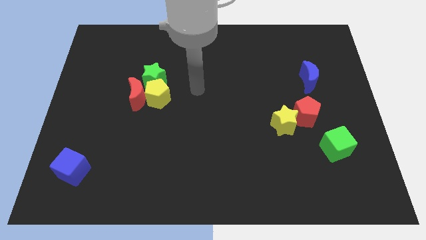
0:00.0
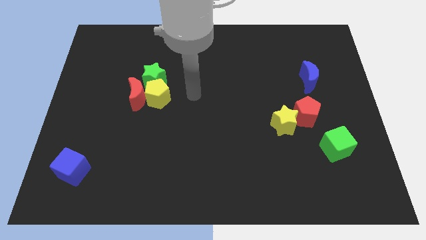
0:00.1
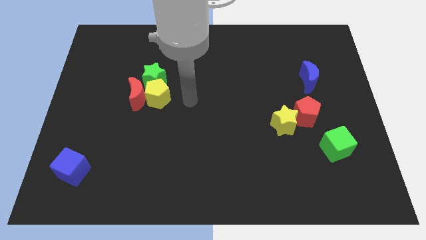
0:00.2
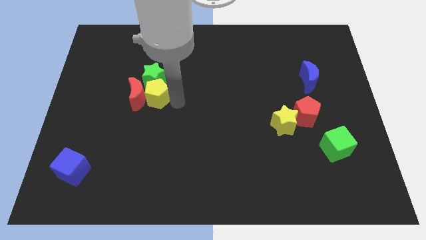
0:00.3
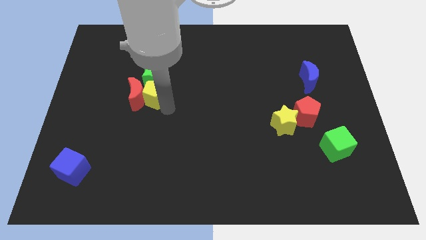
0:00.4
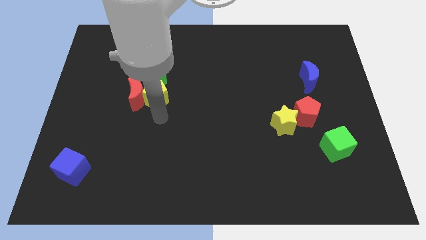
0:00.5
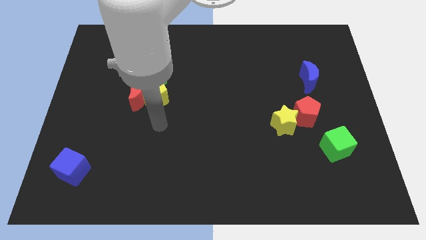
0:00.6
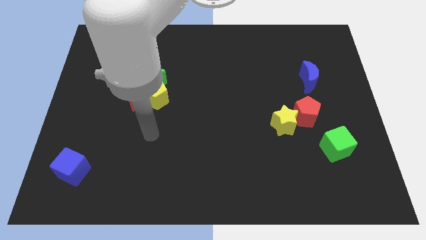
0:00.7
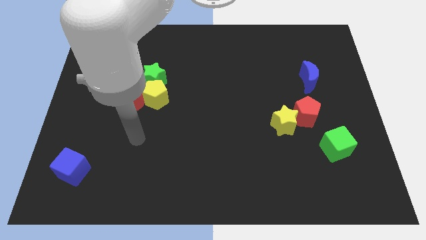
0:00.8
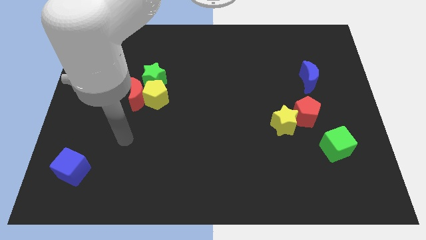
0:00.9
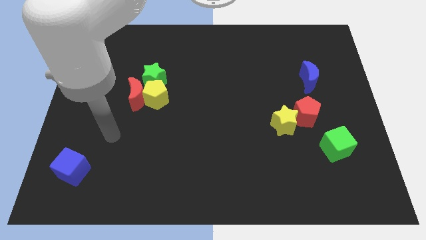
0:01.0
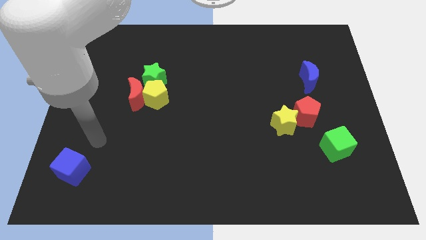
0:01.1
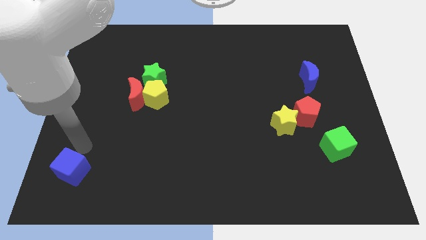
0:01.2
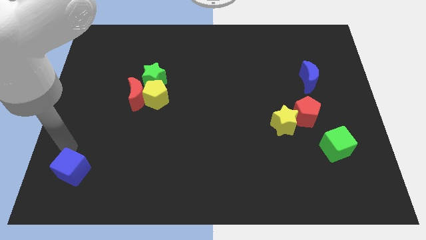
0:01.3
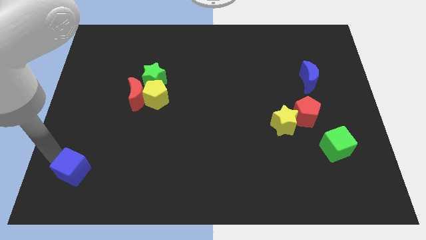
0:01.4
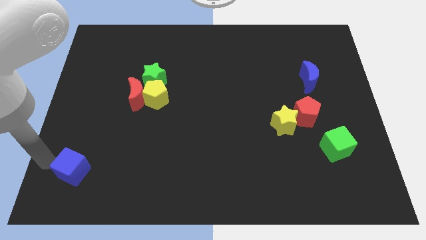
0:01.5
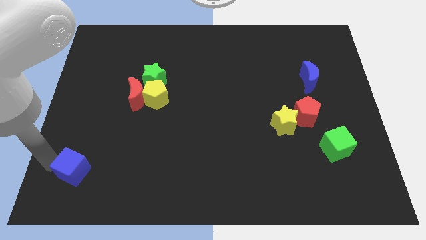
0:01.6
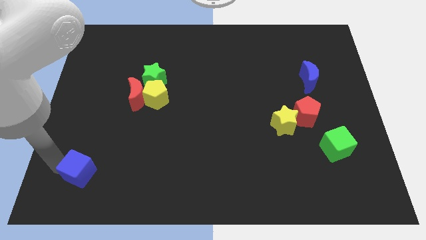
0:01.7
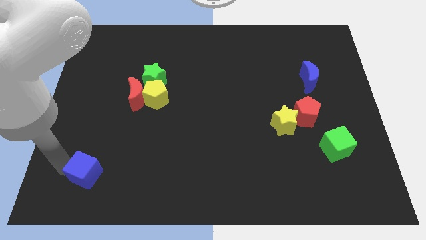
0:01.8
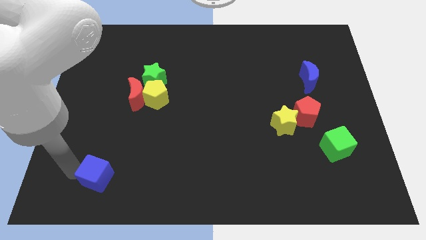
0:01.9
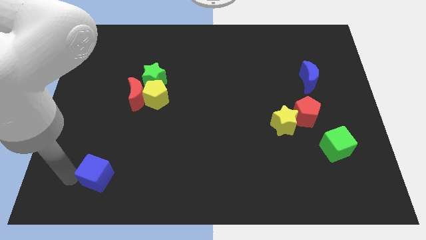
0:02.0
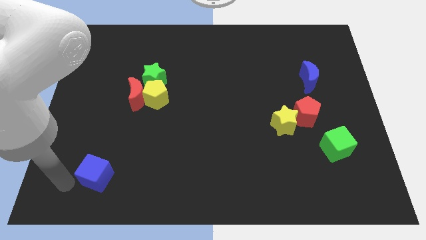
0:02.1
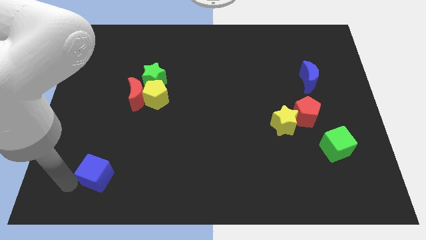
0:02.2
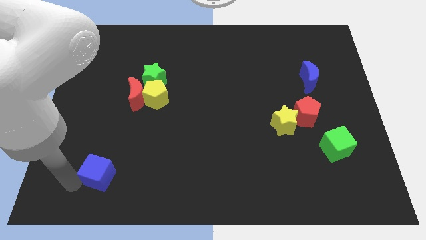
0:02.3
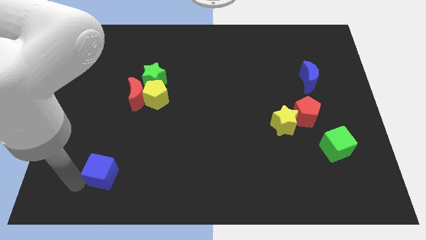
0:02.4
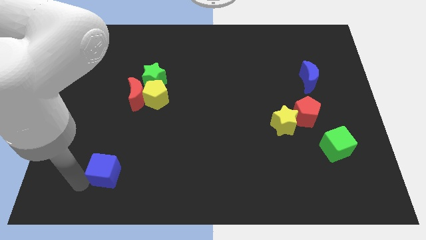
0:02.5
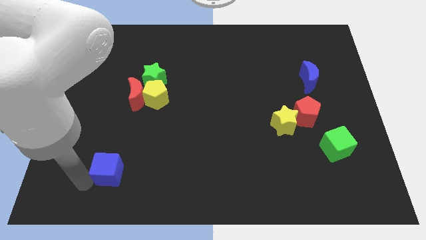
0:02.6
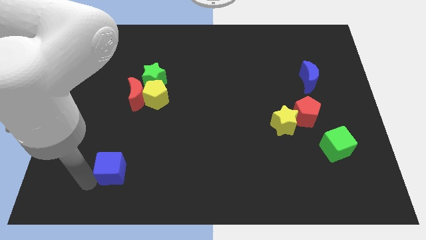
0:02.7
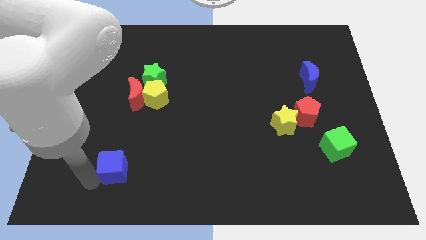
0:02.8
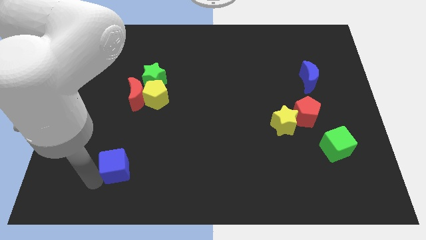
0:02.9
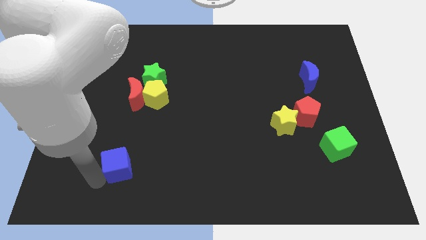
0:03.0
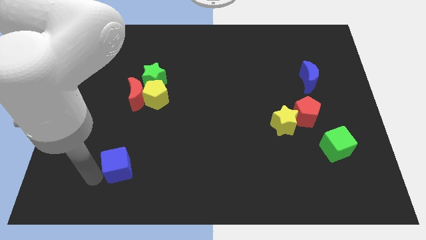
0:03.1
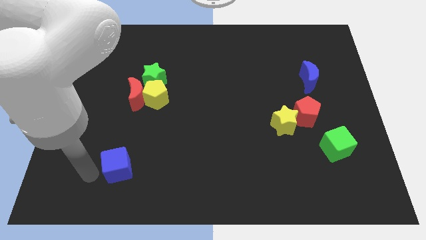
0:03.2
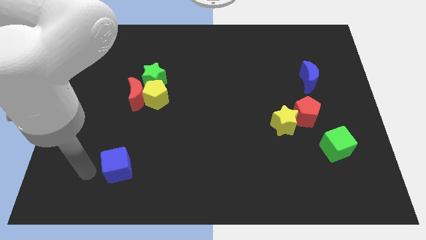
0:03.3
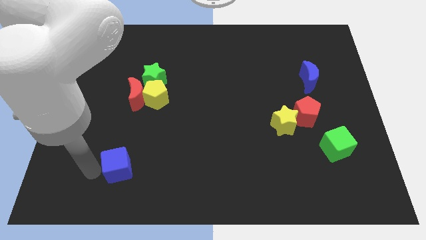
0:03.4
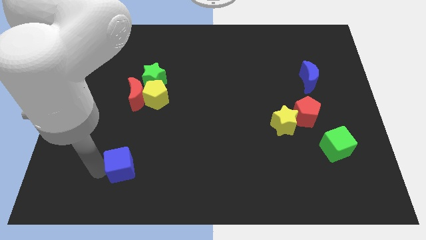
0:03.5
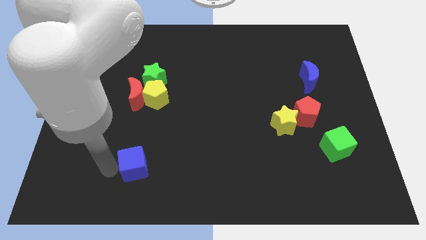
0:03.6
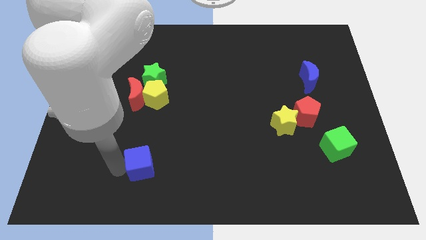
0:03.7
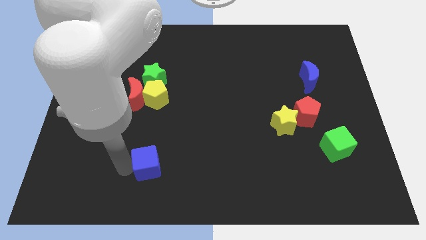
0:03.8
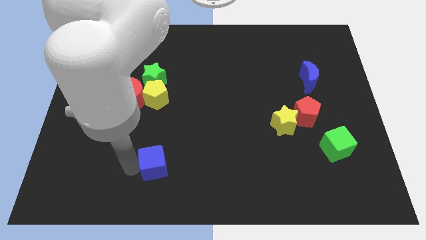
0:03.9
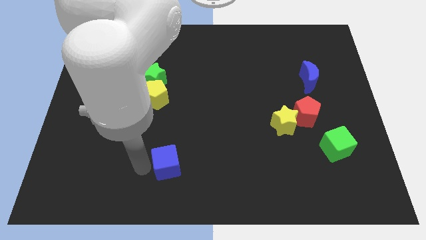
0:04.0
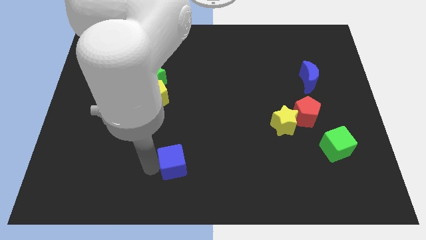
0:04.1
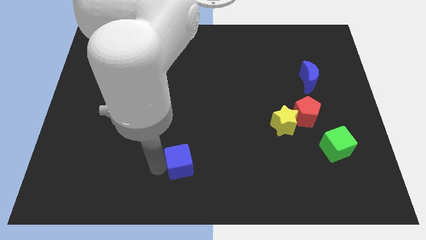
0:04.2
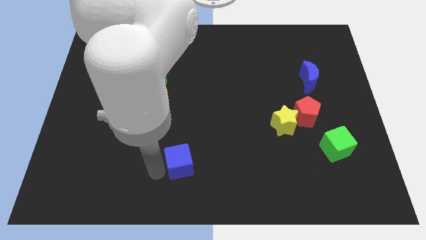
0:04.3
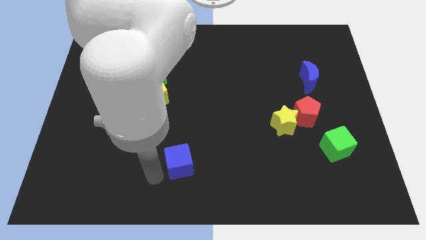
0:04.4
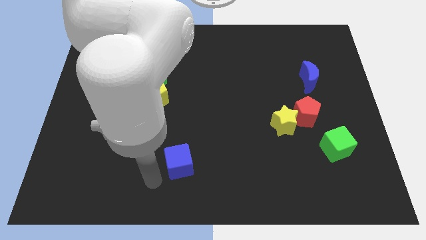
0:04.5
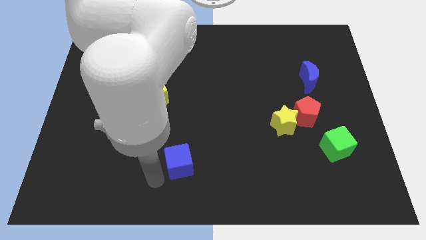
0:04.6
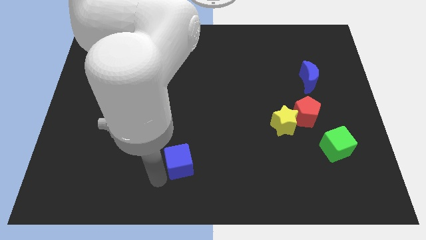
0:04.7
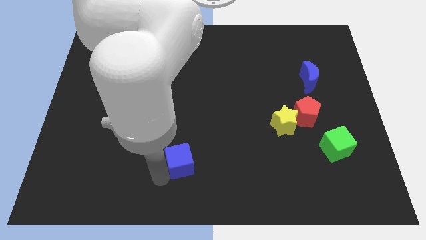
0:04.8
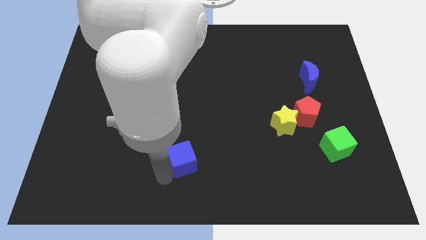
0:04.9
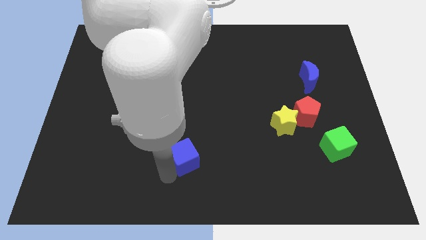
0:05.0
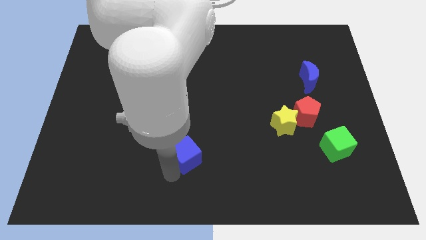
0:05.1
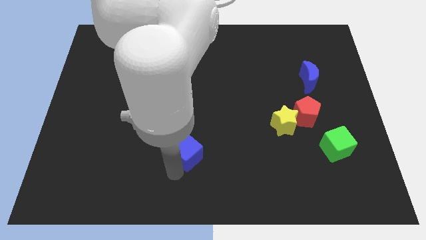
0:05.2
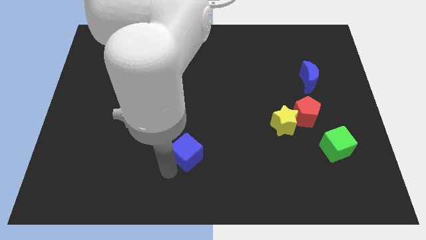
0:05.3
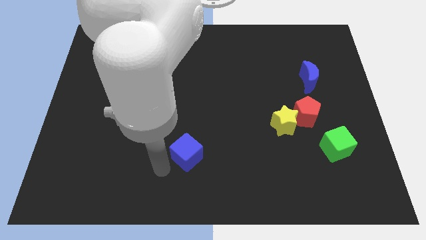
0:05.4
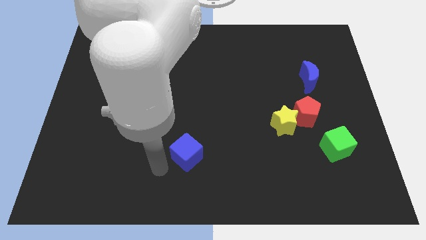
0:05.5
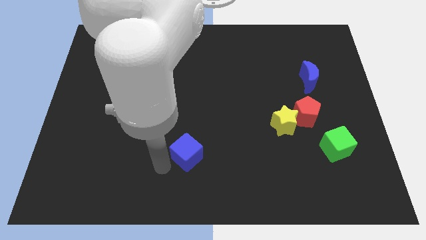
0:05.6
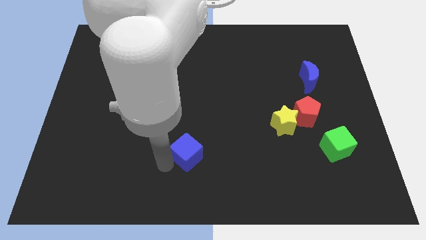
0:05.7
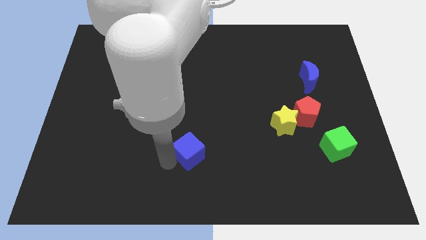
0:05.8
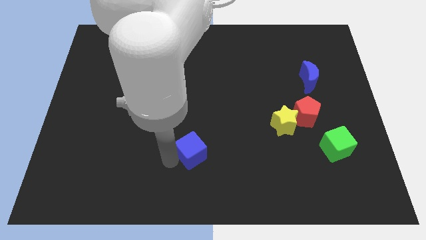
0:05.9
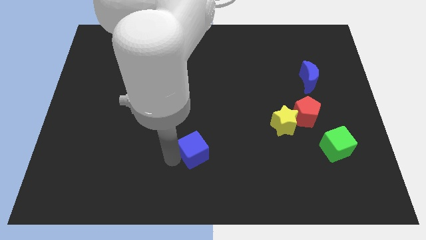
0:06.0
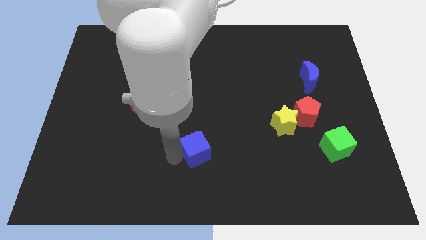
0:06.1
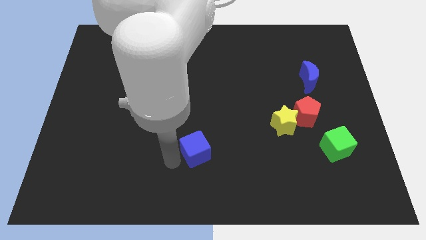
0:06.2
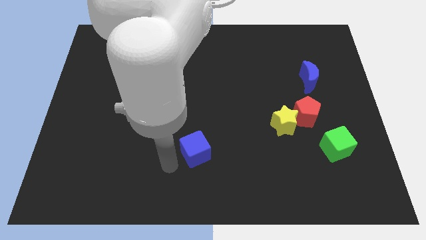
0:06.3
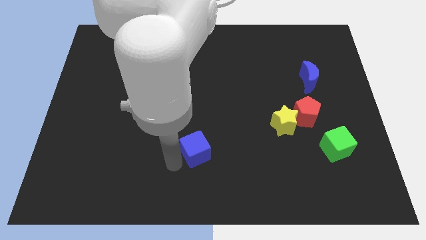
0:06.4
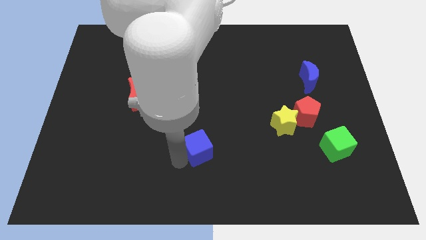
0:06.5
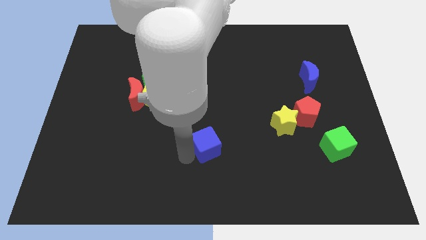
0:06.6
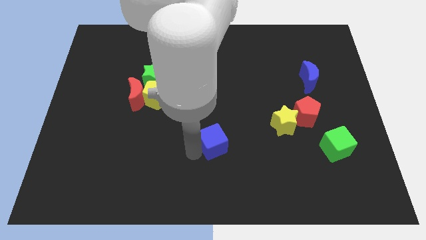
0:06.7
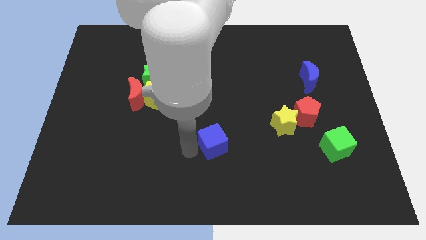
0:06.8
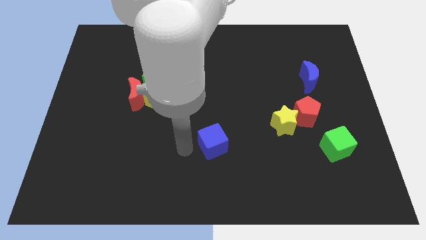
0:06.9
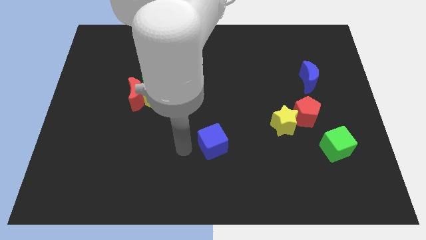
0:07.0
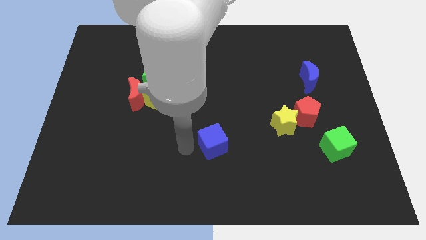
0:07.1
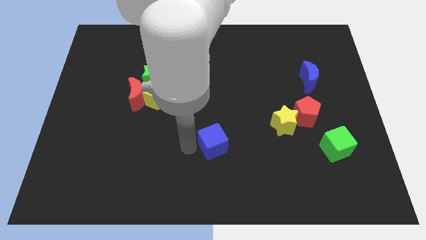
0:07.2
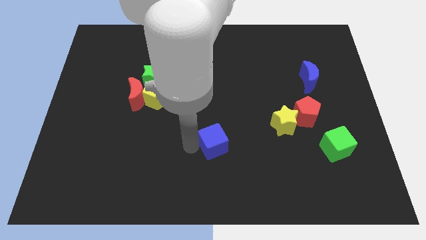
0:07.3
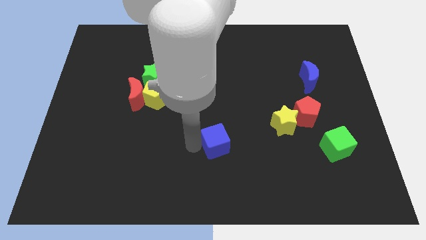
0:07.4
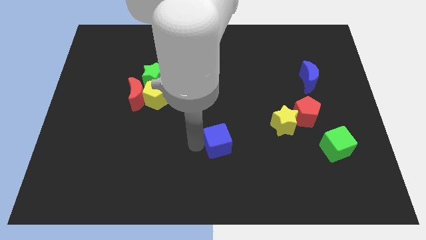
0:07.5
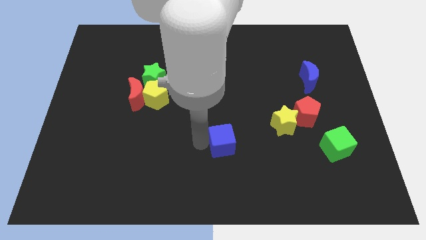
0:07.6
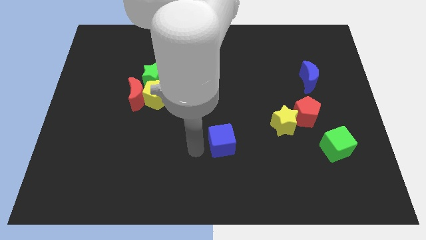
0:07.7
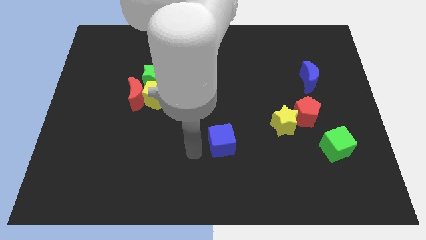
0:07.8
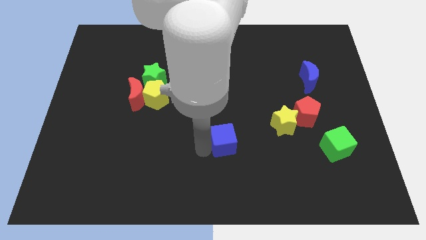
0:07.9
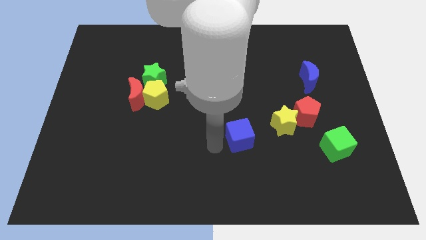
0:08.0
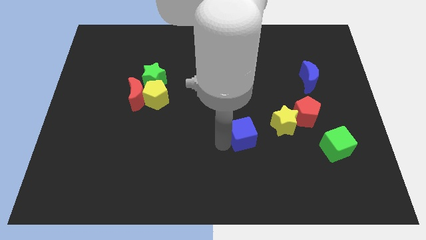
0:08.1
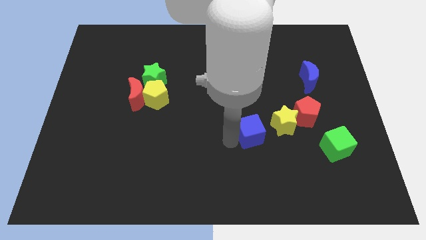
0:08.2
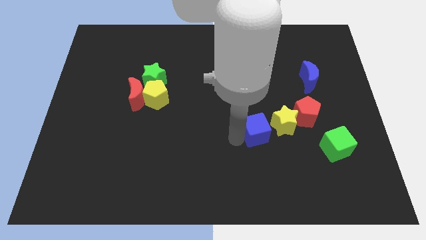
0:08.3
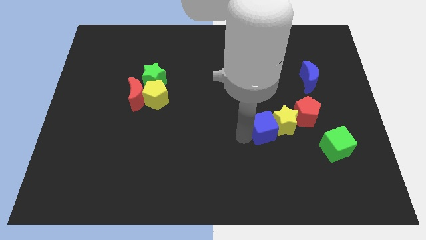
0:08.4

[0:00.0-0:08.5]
move the blue cube close to the yellow star
